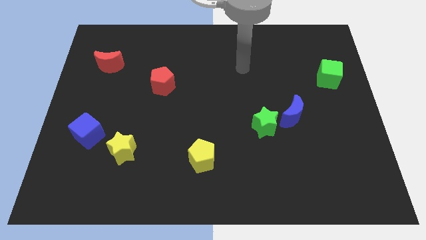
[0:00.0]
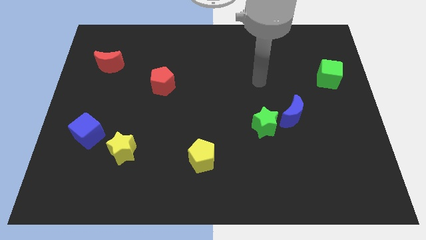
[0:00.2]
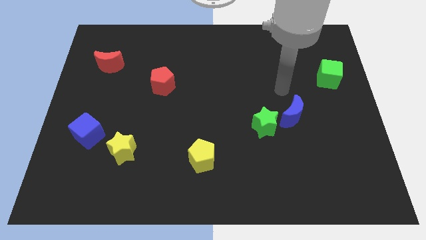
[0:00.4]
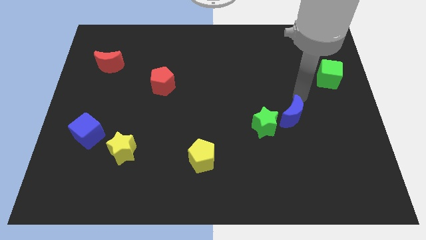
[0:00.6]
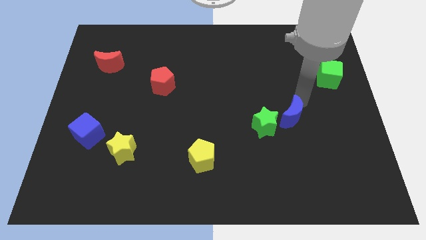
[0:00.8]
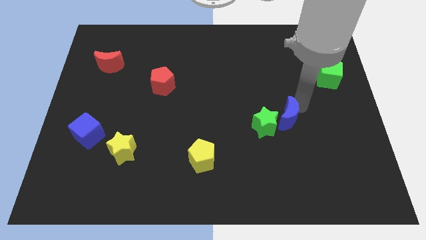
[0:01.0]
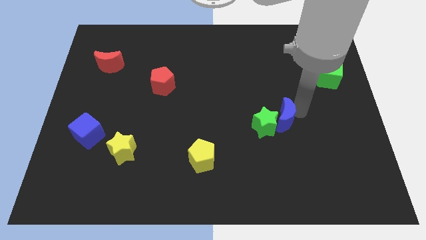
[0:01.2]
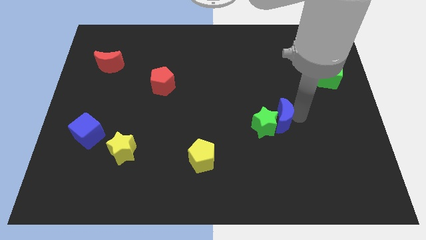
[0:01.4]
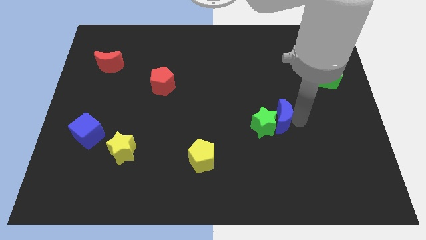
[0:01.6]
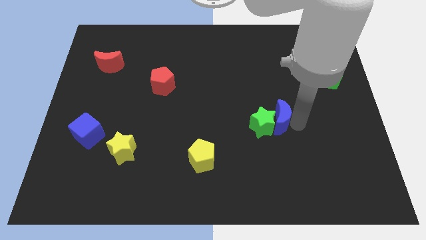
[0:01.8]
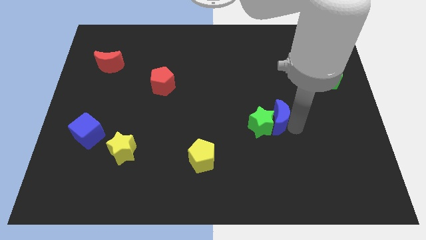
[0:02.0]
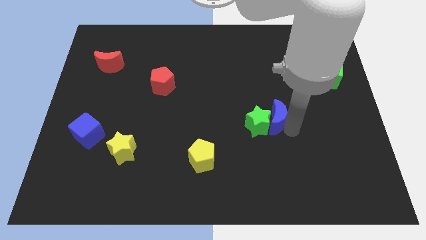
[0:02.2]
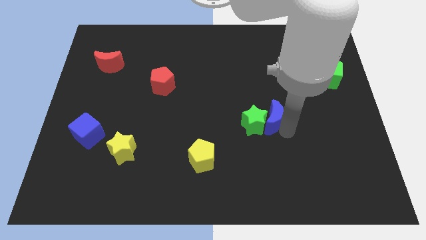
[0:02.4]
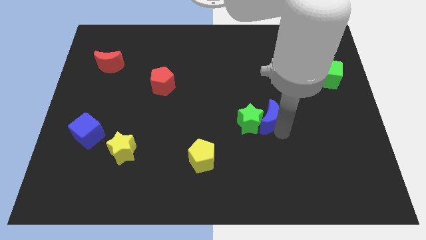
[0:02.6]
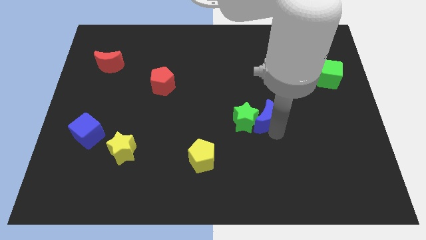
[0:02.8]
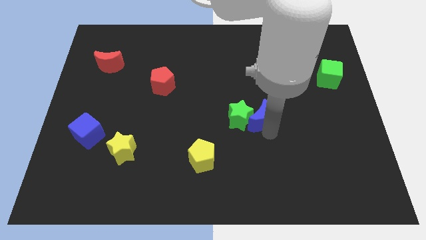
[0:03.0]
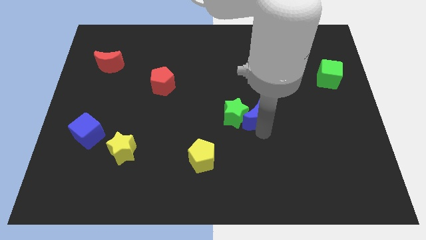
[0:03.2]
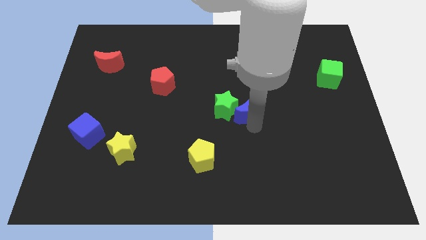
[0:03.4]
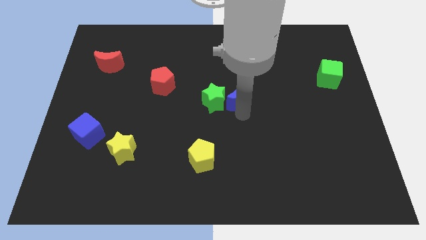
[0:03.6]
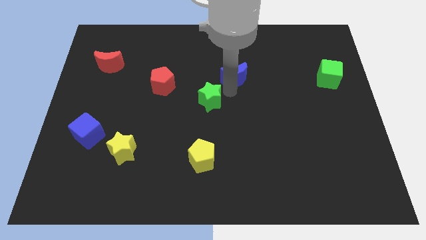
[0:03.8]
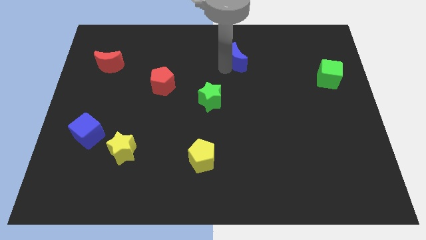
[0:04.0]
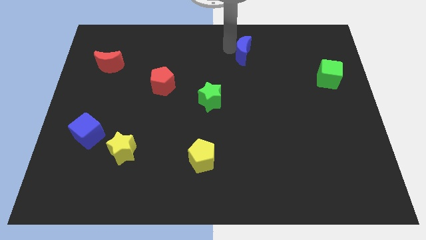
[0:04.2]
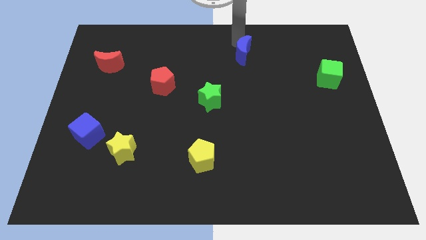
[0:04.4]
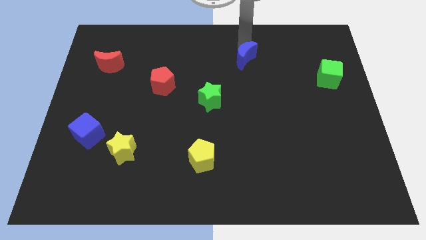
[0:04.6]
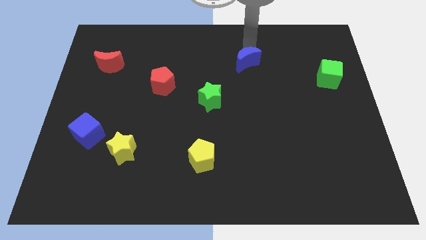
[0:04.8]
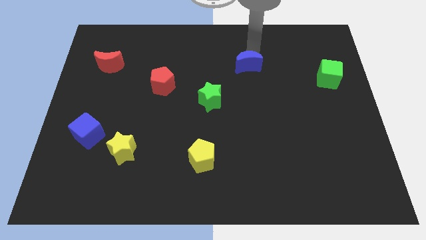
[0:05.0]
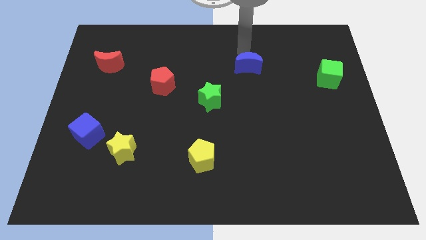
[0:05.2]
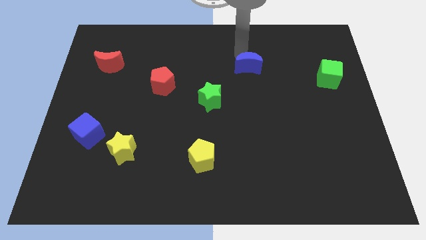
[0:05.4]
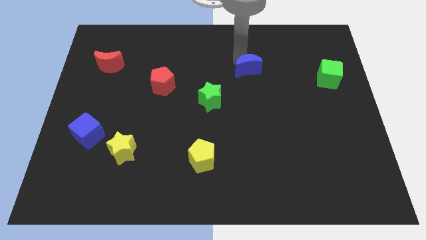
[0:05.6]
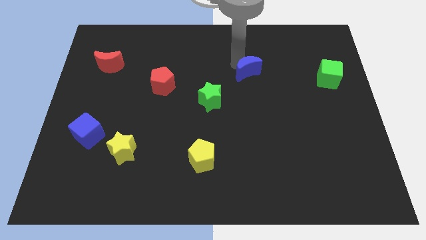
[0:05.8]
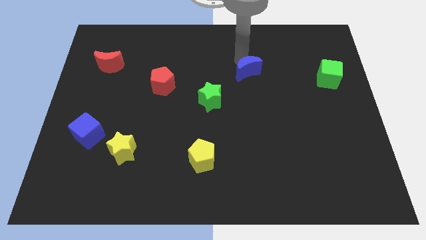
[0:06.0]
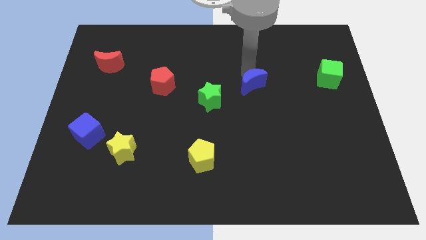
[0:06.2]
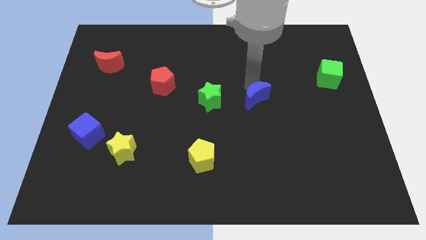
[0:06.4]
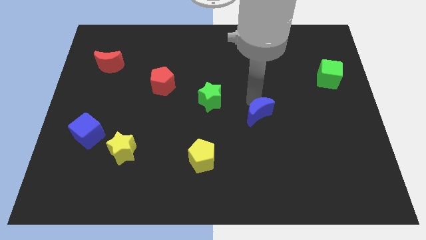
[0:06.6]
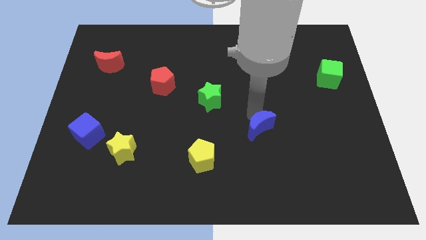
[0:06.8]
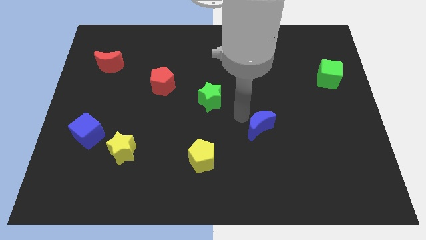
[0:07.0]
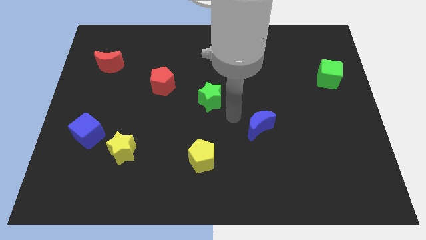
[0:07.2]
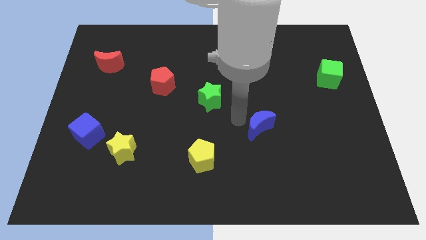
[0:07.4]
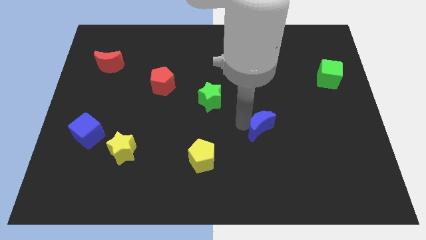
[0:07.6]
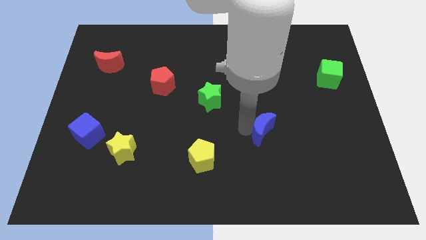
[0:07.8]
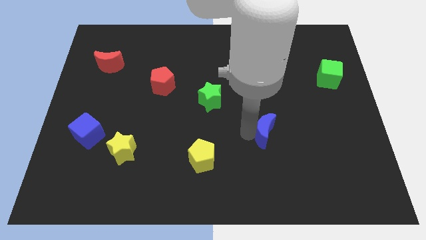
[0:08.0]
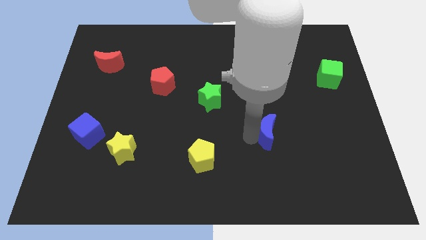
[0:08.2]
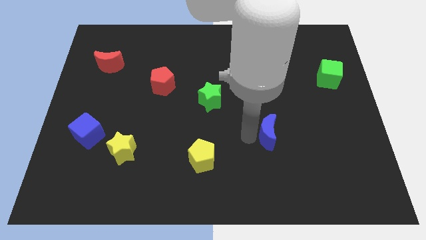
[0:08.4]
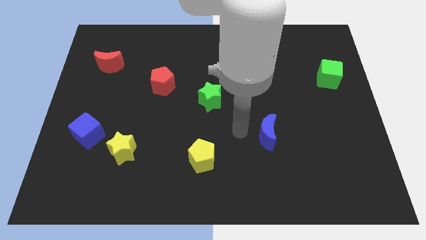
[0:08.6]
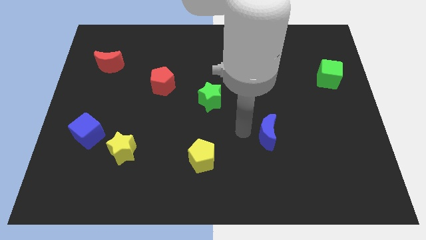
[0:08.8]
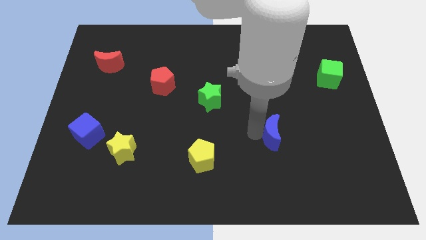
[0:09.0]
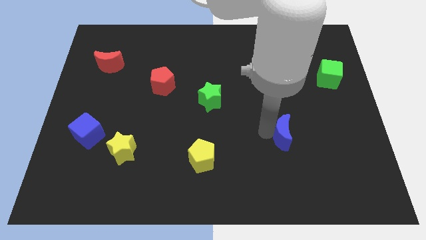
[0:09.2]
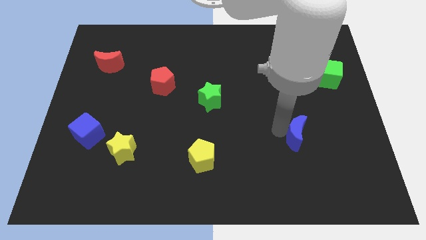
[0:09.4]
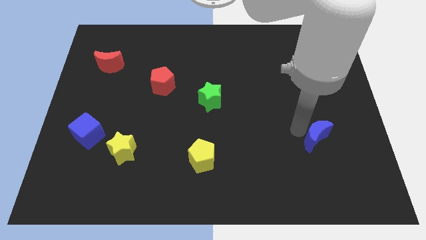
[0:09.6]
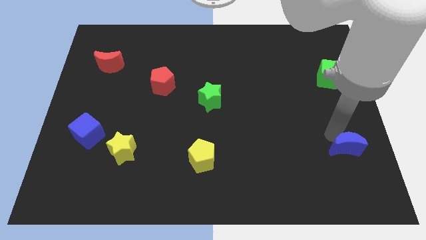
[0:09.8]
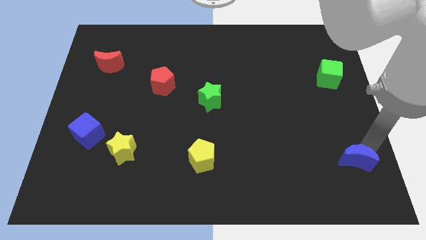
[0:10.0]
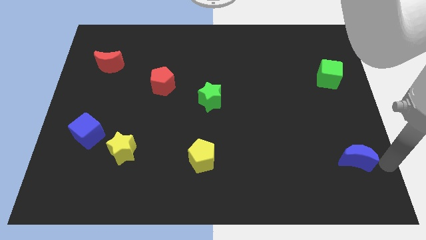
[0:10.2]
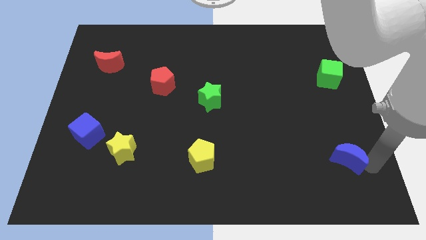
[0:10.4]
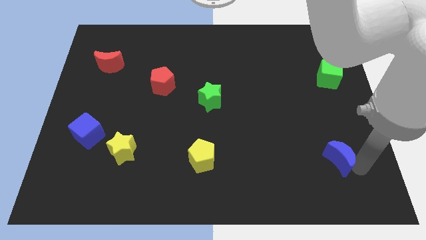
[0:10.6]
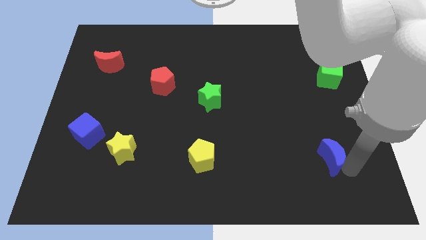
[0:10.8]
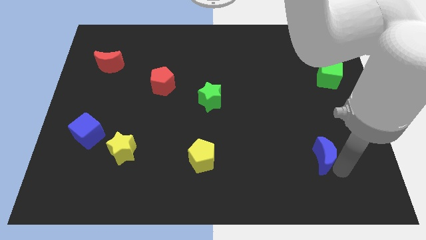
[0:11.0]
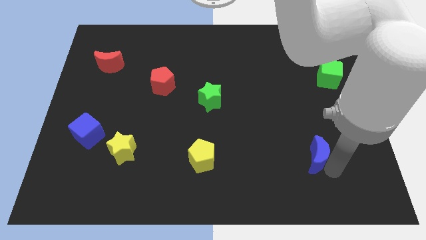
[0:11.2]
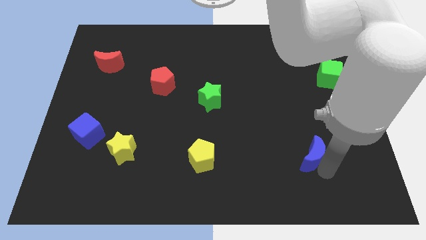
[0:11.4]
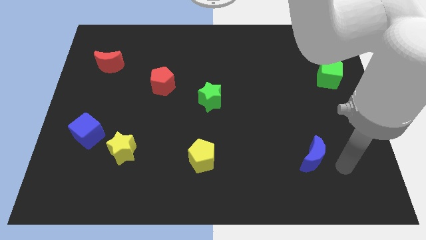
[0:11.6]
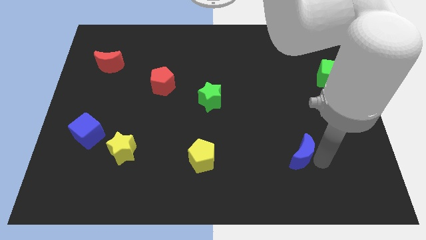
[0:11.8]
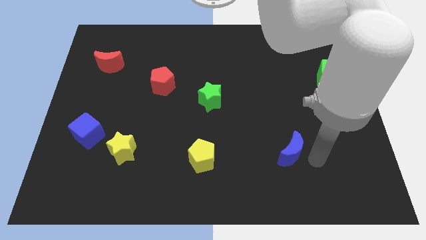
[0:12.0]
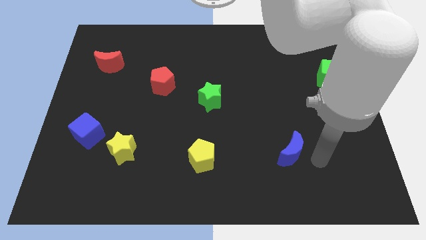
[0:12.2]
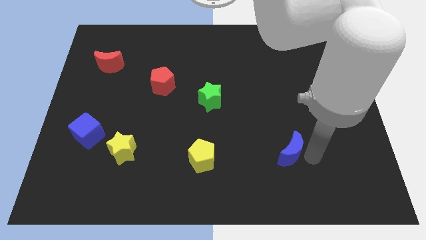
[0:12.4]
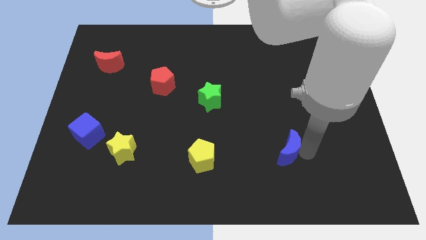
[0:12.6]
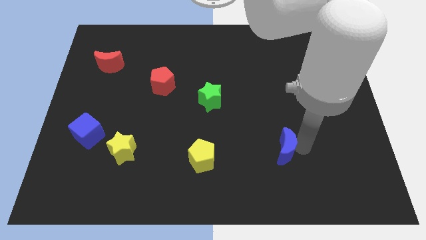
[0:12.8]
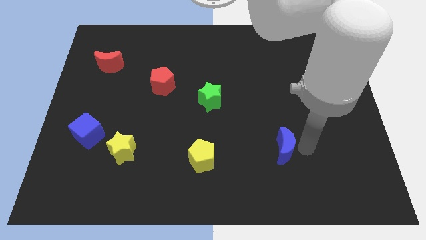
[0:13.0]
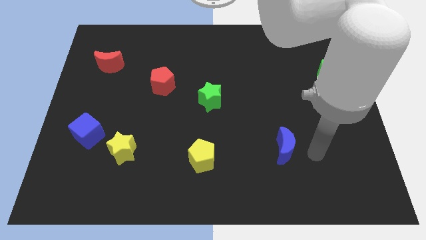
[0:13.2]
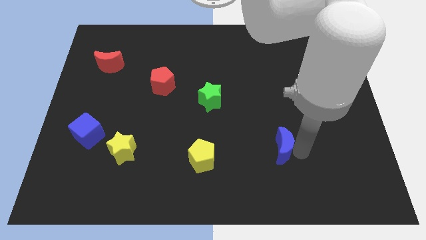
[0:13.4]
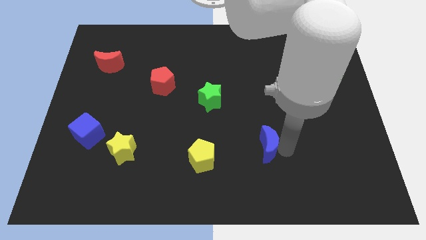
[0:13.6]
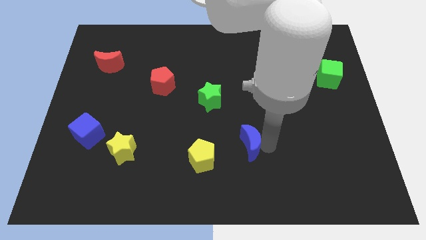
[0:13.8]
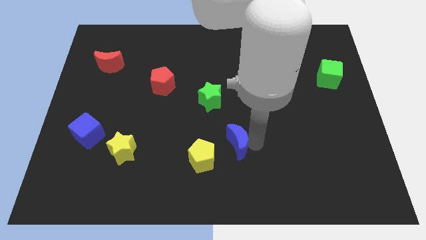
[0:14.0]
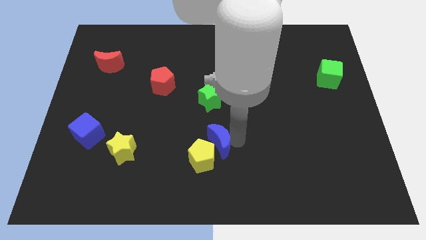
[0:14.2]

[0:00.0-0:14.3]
slide the blue moon close to the yellow pentagon
